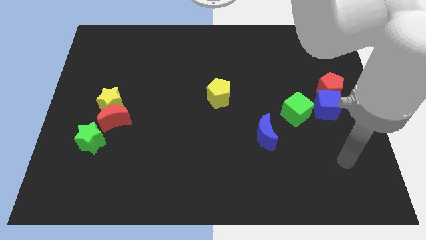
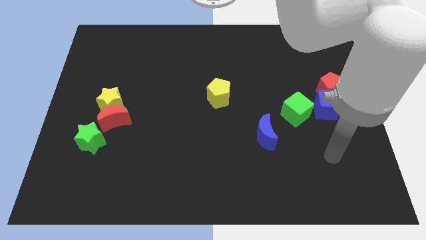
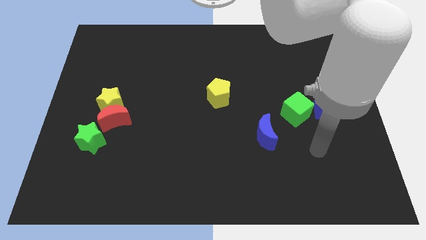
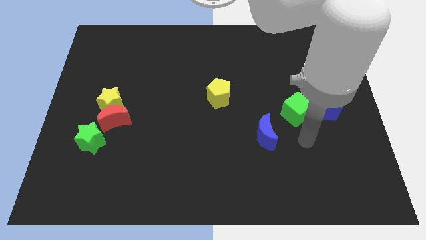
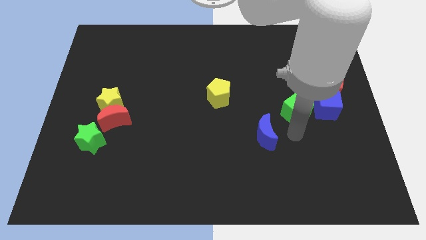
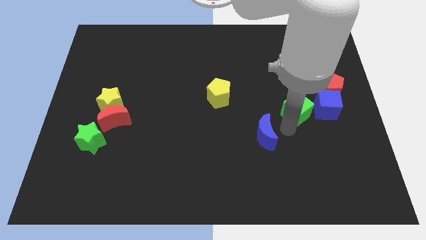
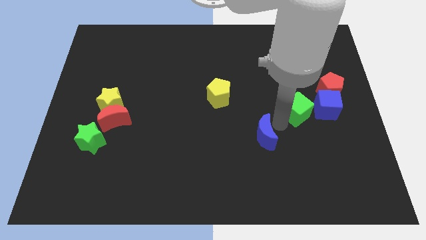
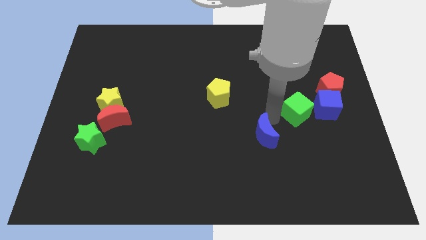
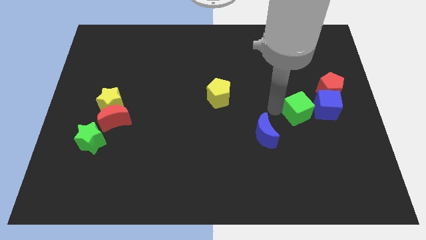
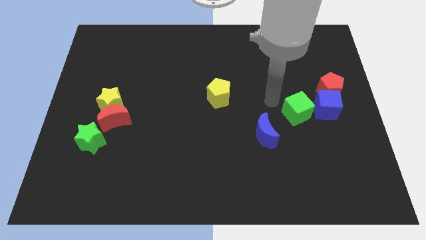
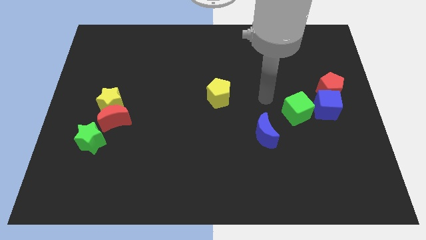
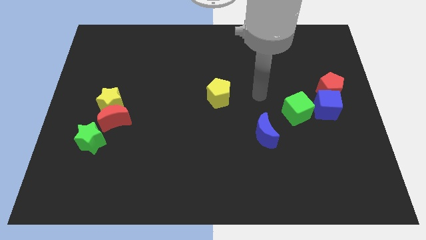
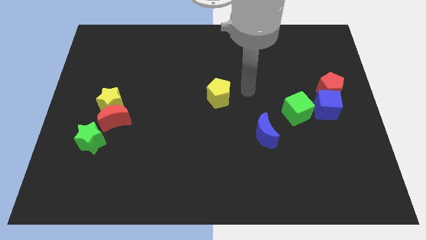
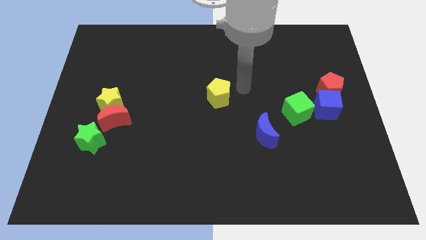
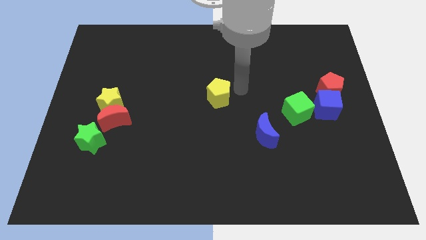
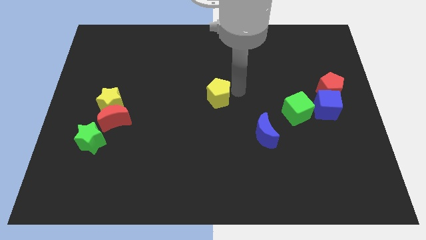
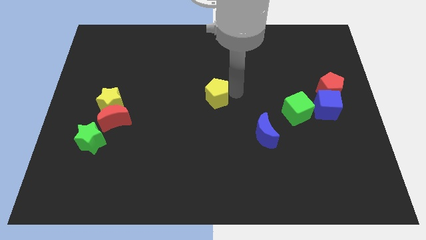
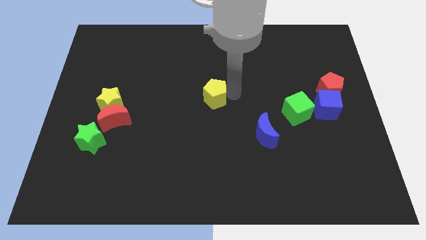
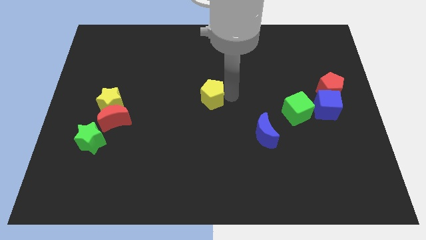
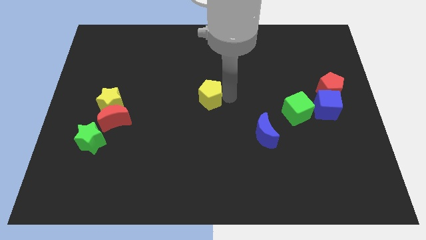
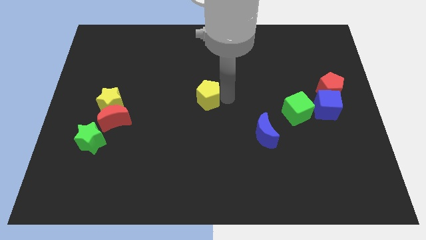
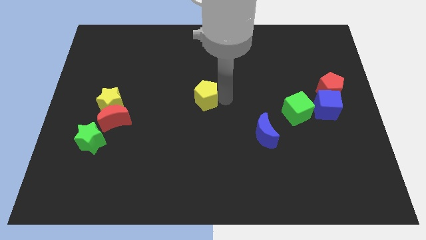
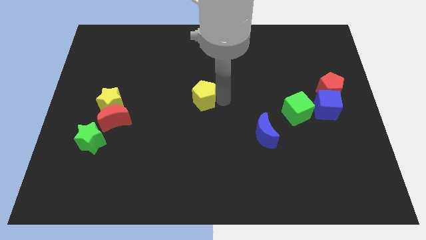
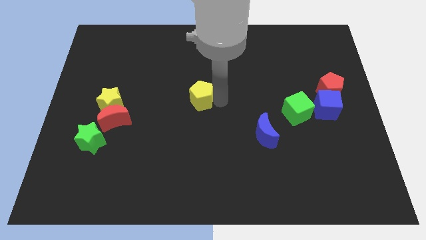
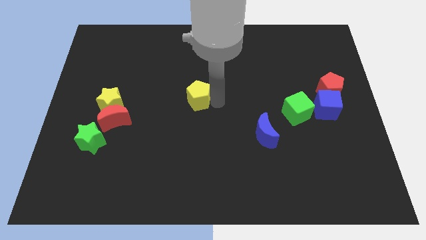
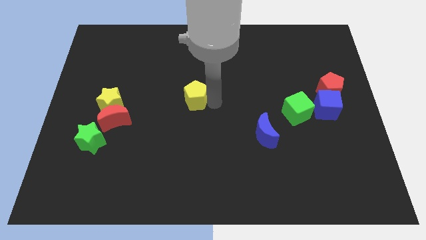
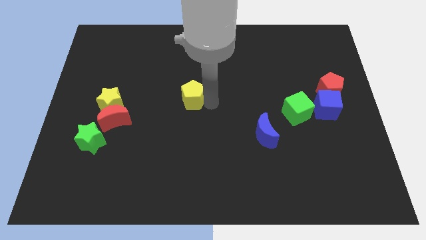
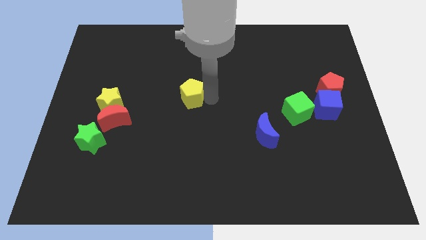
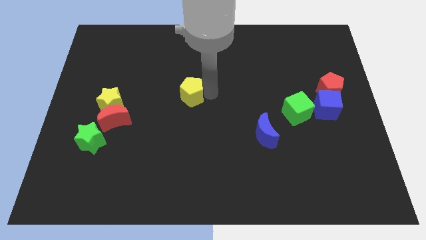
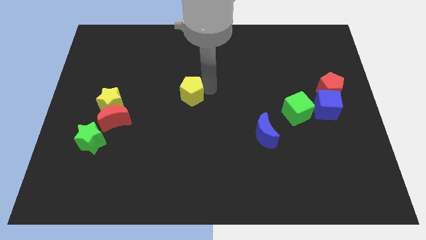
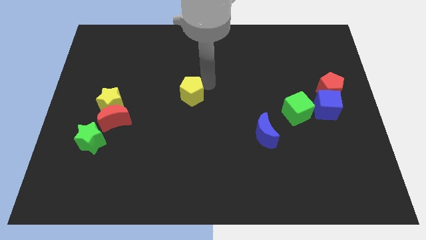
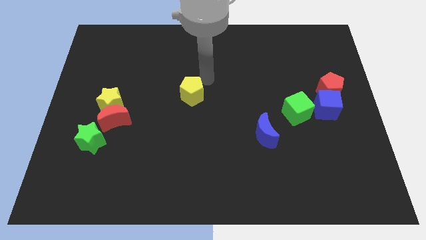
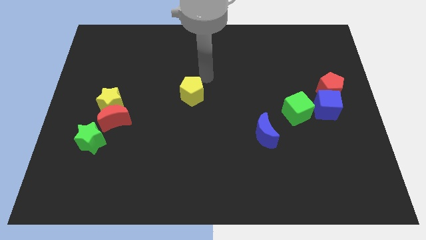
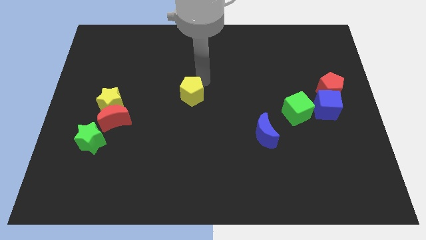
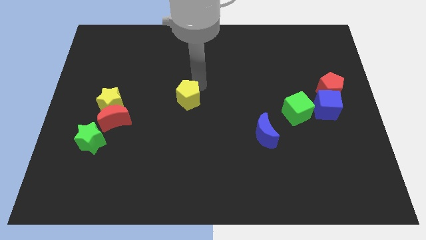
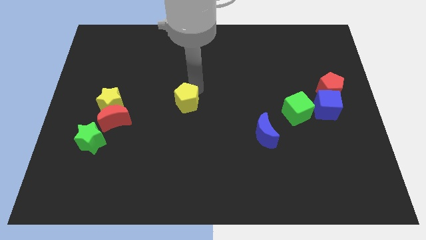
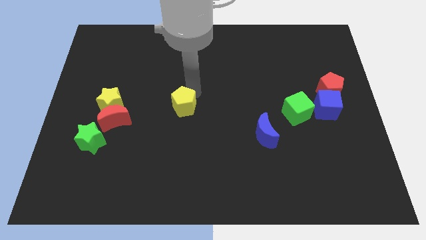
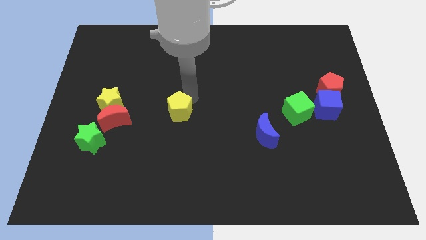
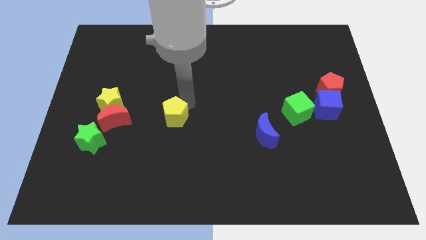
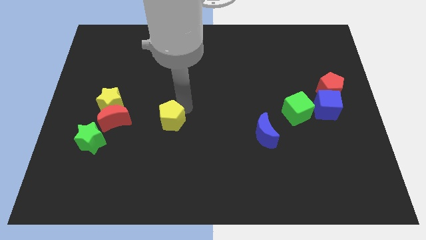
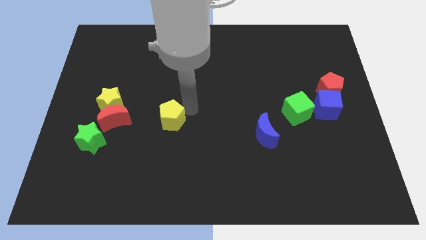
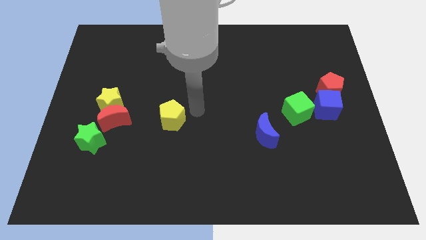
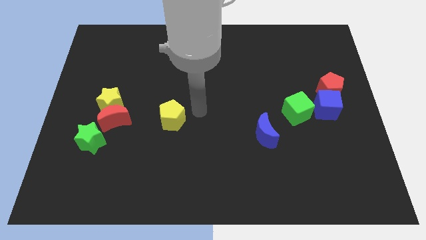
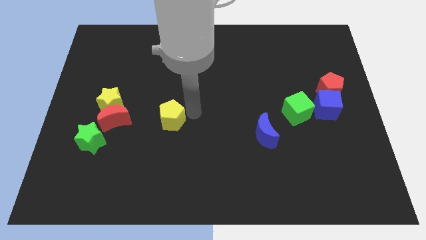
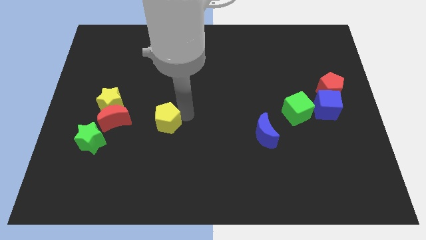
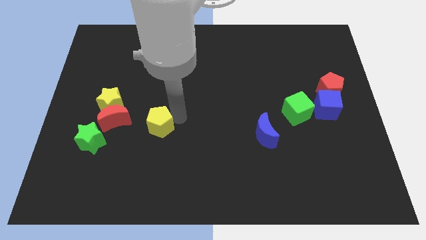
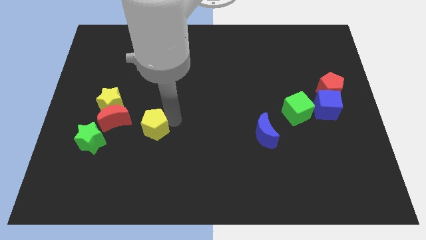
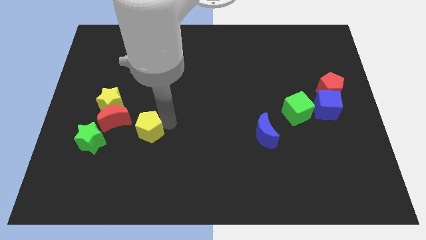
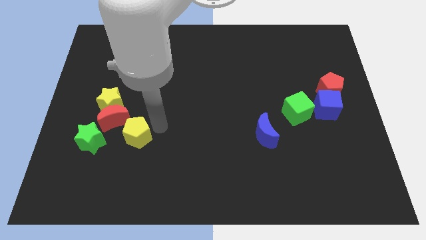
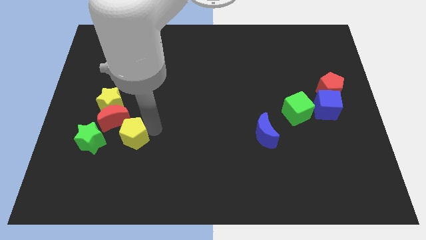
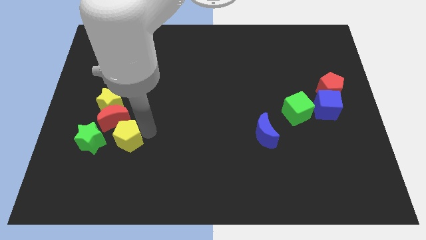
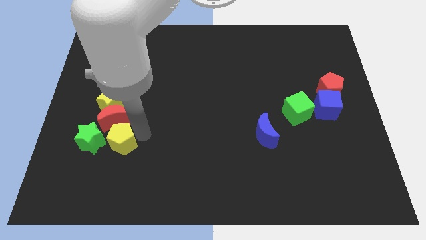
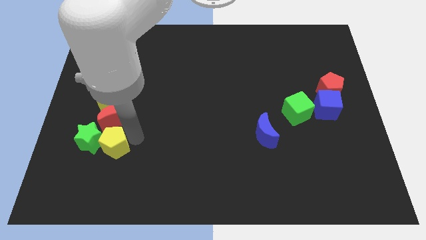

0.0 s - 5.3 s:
slide the yellow pentagon close to the green star

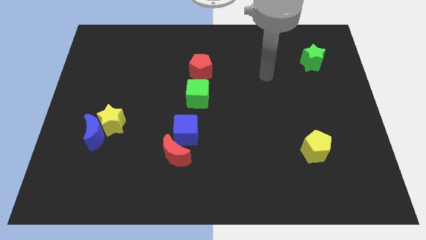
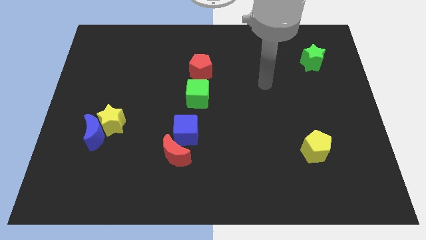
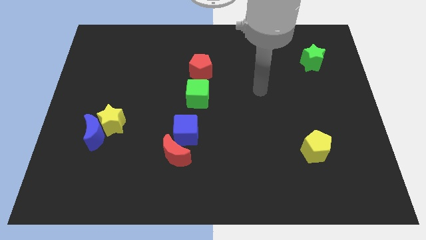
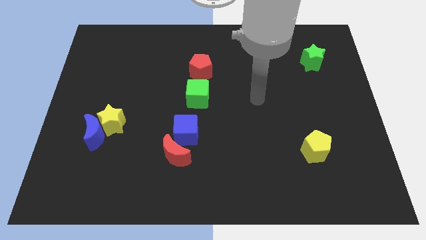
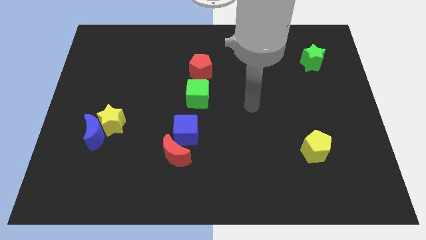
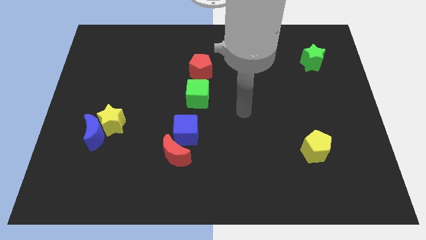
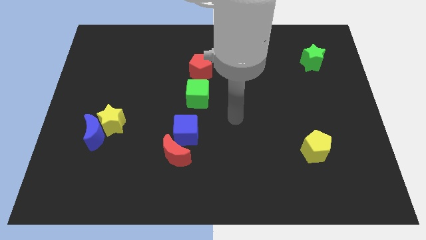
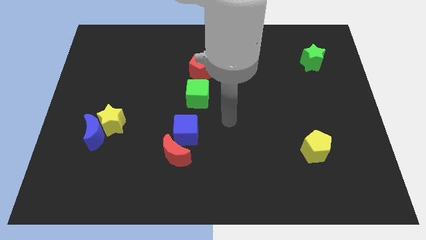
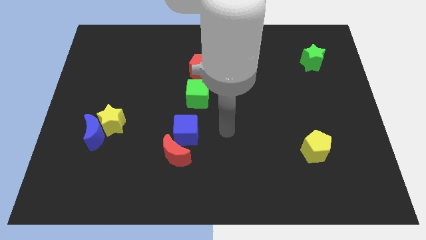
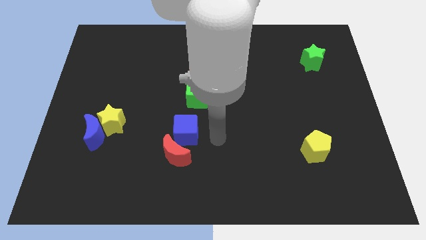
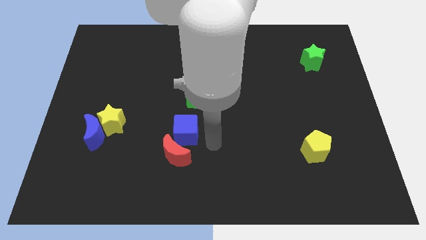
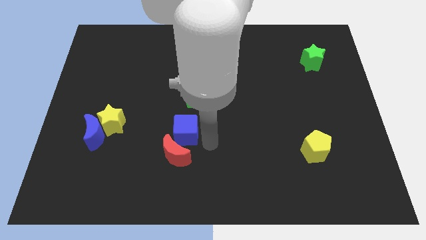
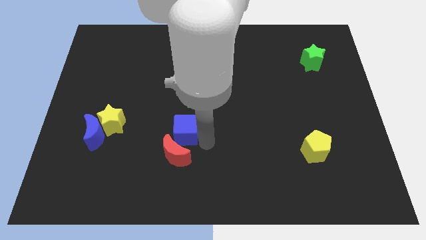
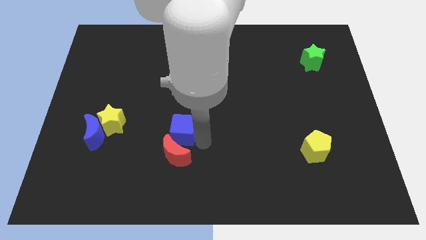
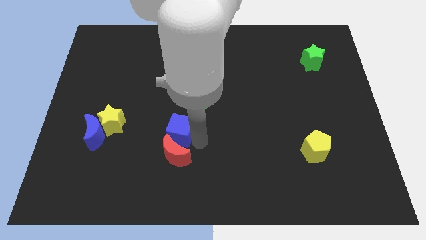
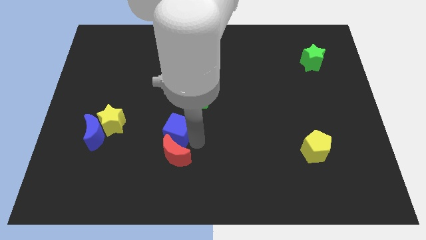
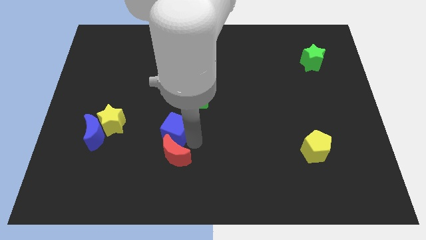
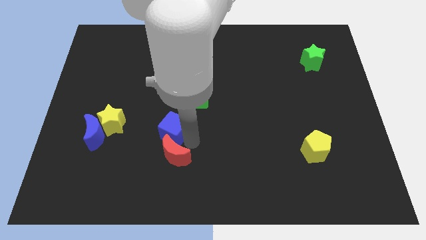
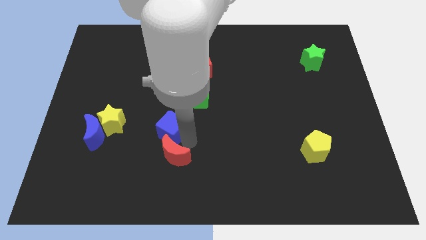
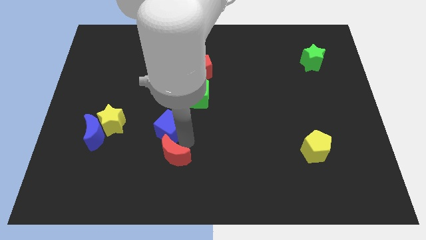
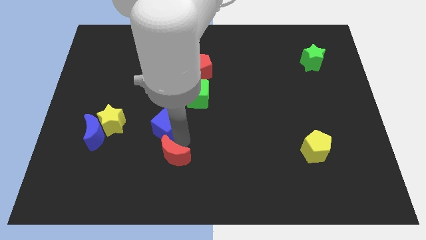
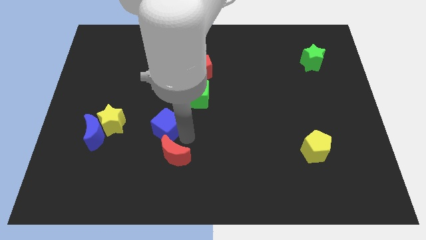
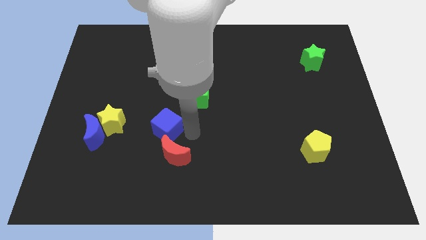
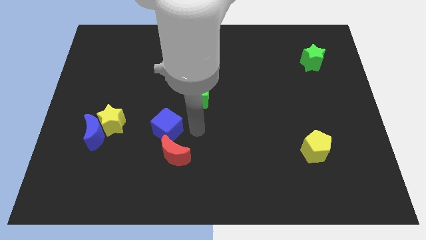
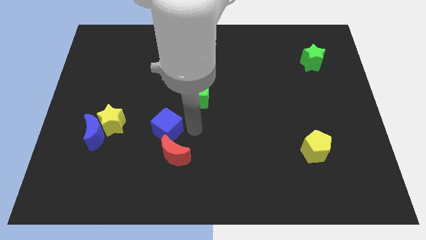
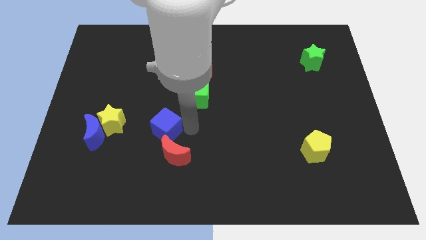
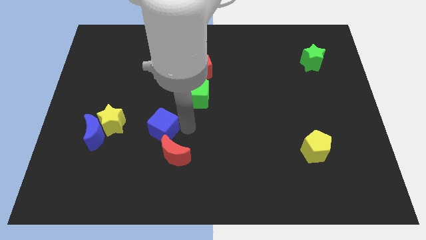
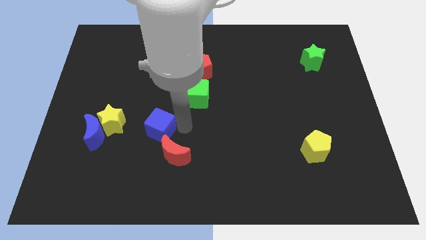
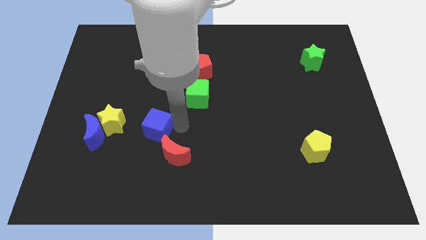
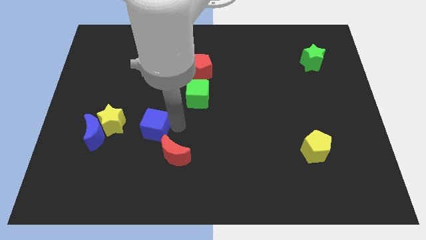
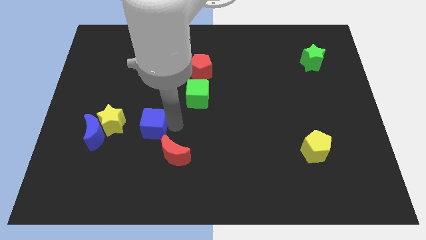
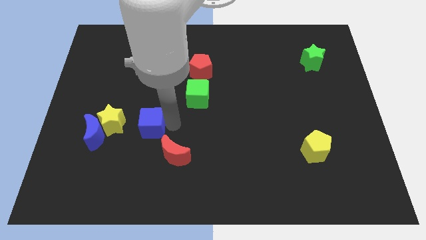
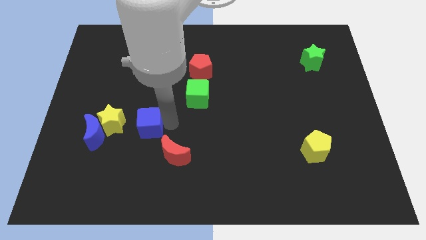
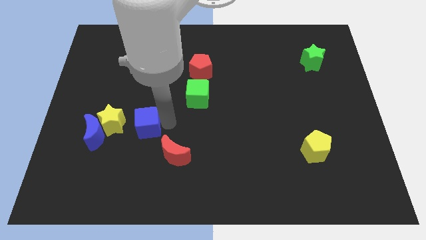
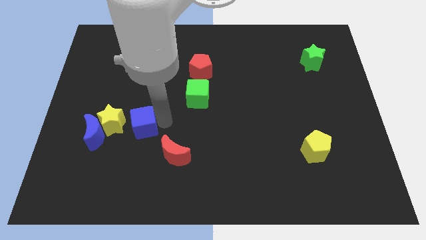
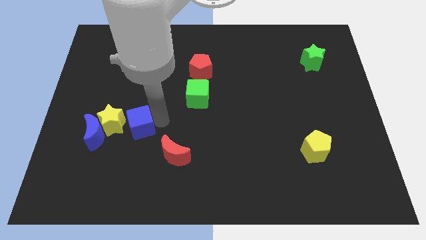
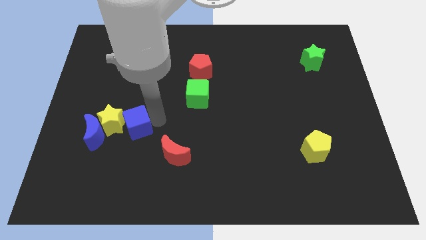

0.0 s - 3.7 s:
push the blue cube close to the yellow star
